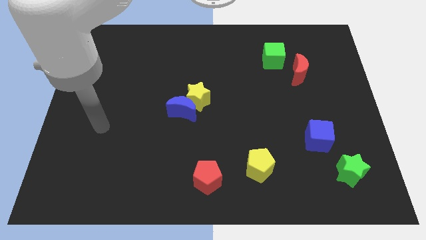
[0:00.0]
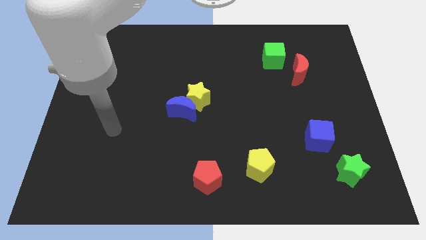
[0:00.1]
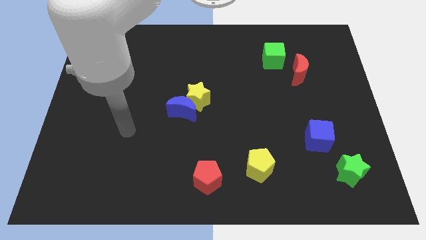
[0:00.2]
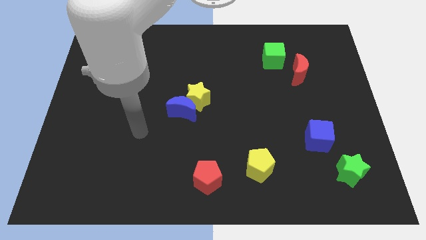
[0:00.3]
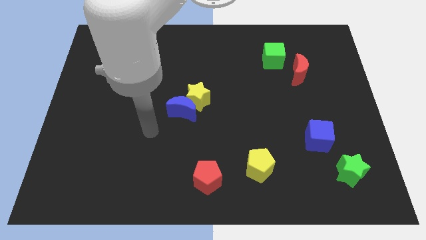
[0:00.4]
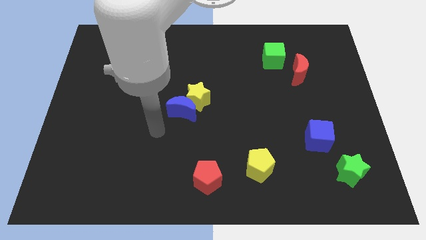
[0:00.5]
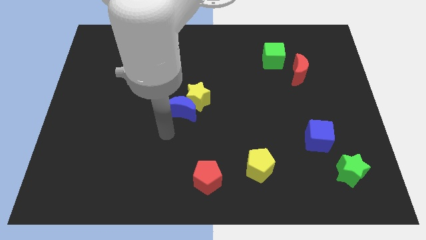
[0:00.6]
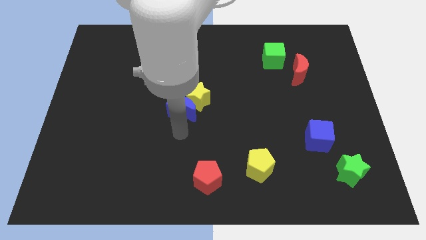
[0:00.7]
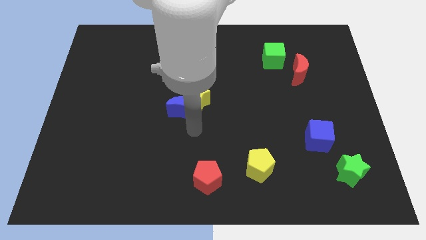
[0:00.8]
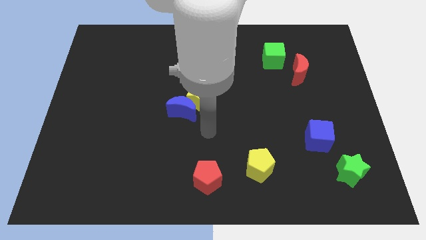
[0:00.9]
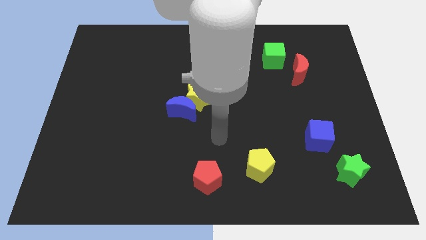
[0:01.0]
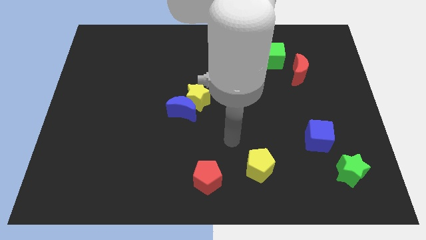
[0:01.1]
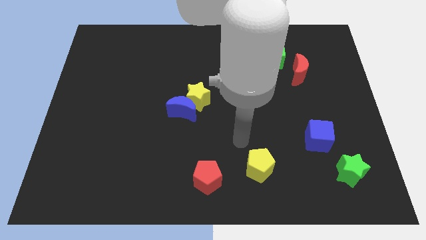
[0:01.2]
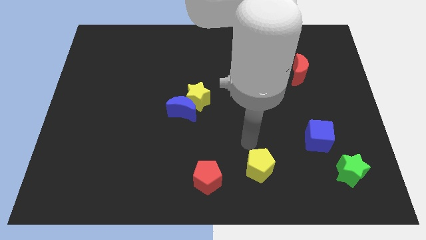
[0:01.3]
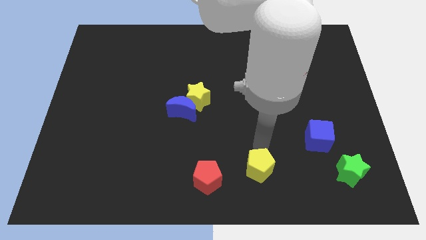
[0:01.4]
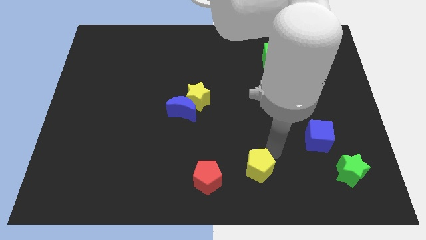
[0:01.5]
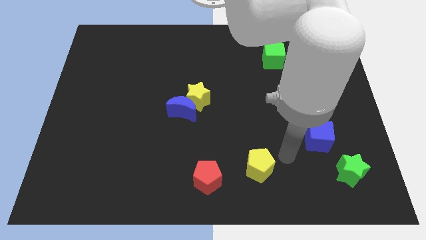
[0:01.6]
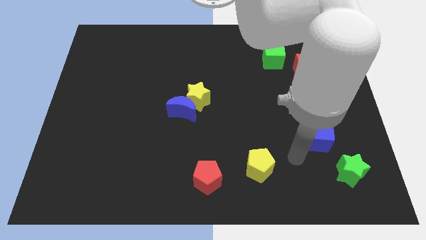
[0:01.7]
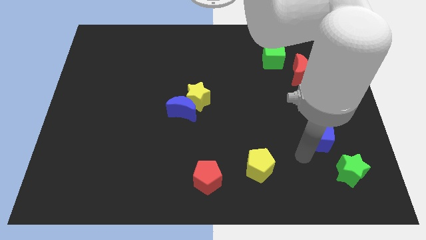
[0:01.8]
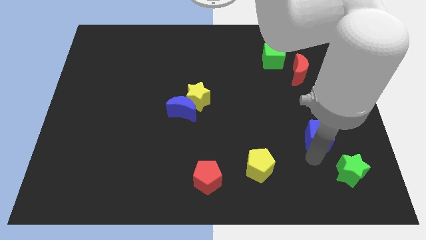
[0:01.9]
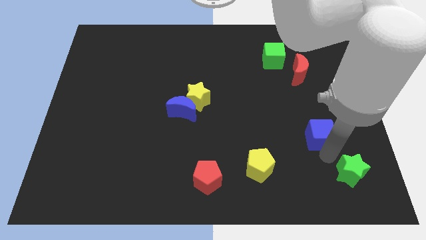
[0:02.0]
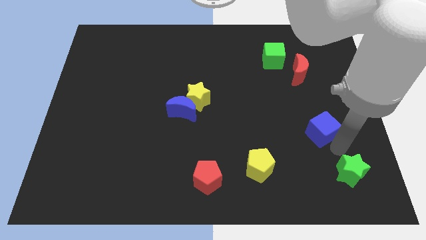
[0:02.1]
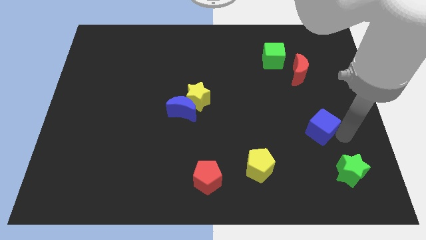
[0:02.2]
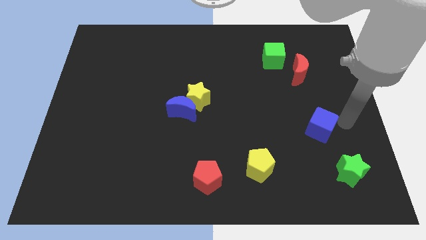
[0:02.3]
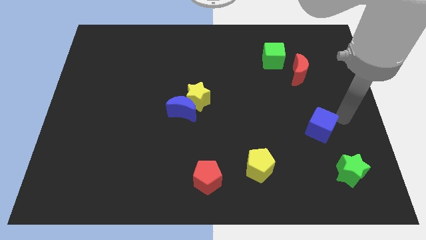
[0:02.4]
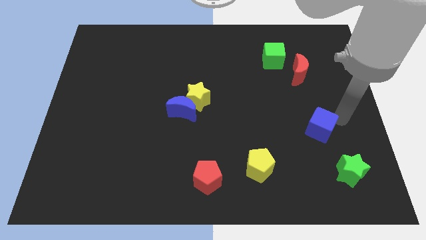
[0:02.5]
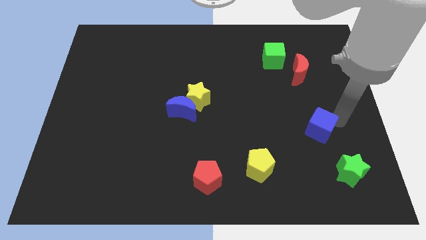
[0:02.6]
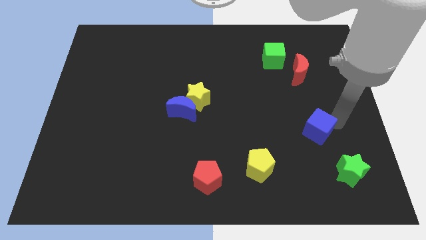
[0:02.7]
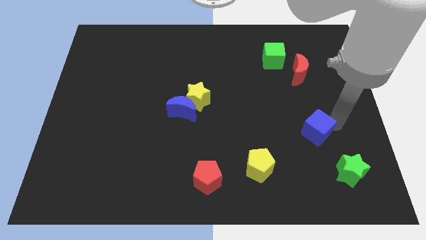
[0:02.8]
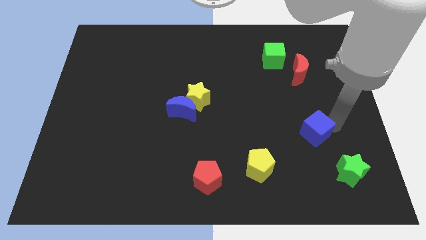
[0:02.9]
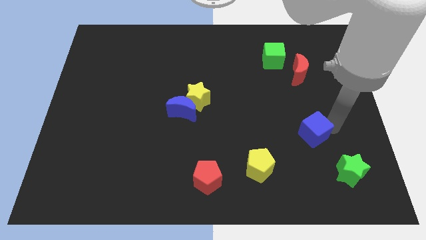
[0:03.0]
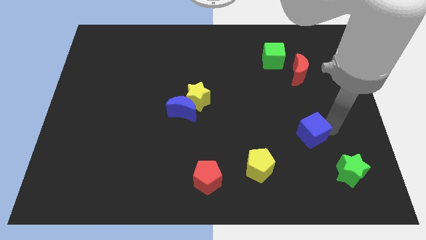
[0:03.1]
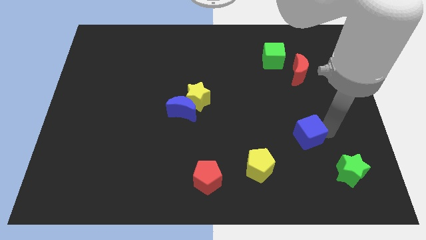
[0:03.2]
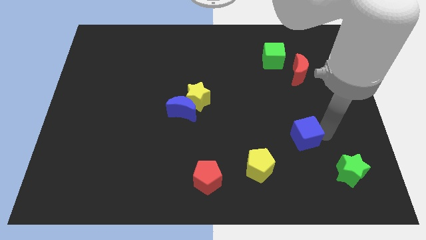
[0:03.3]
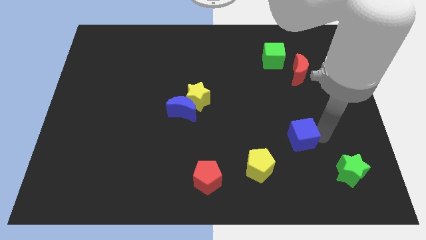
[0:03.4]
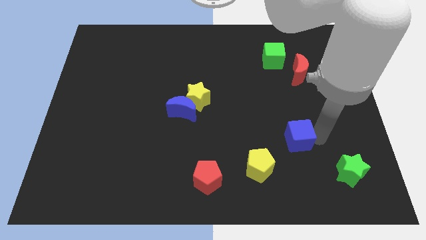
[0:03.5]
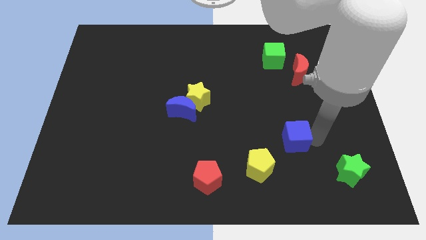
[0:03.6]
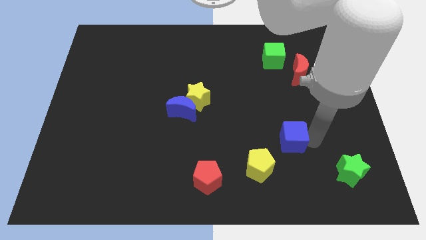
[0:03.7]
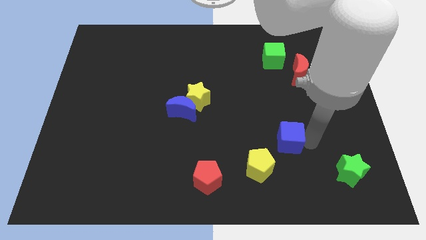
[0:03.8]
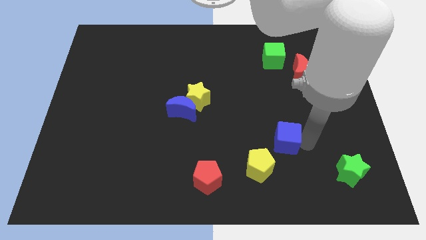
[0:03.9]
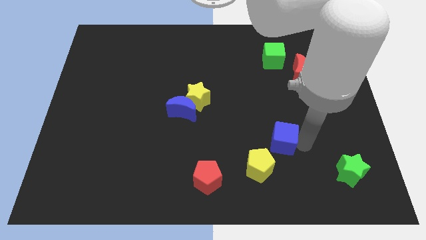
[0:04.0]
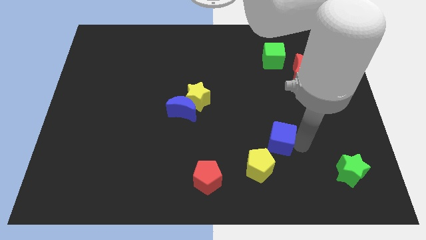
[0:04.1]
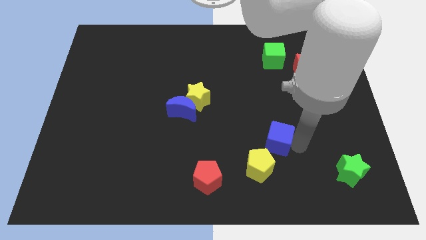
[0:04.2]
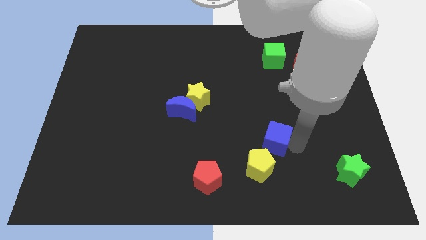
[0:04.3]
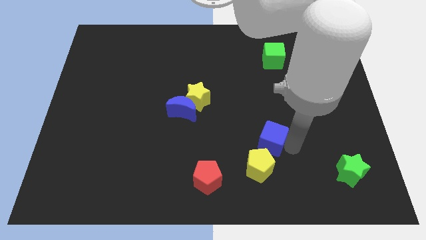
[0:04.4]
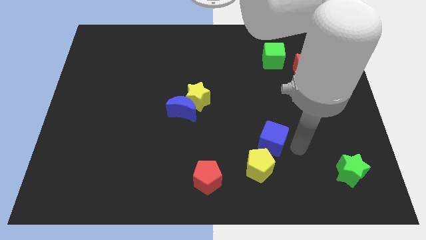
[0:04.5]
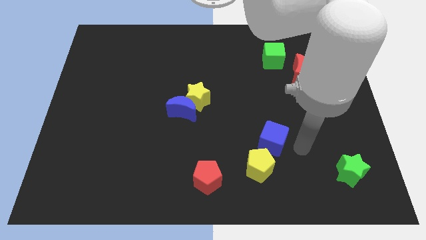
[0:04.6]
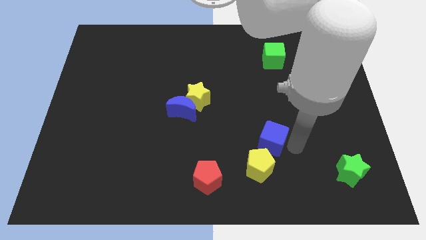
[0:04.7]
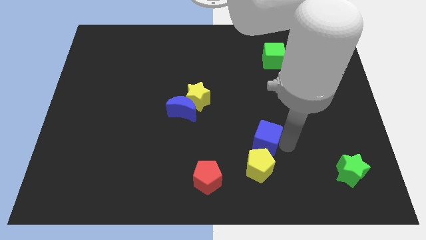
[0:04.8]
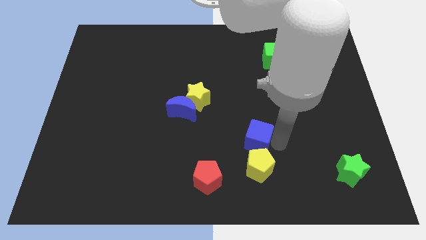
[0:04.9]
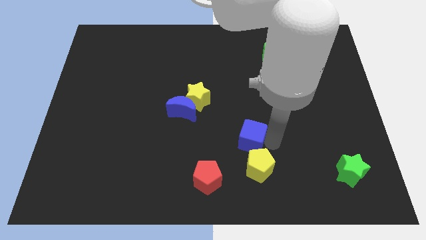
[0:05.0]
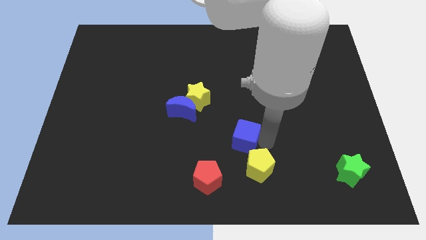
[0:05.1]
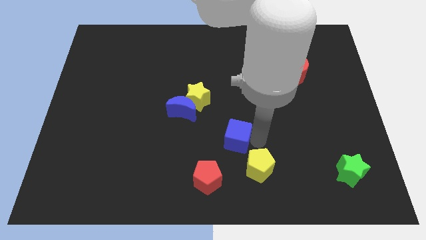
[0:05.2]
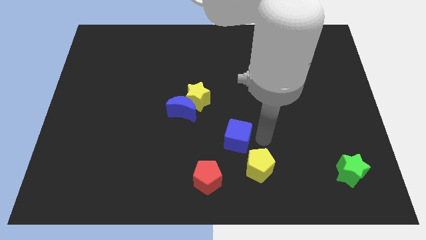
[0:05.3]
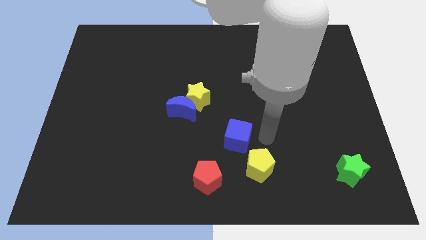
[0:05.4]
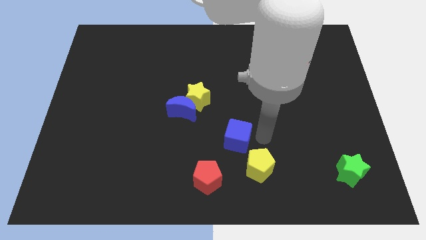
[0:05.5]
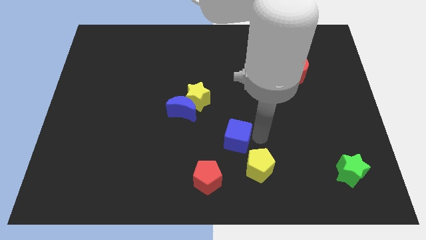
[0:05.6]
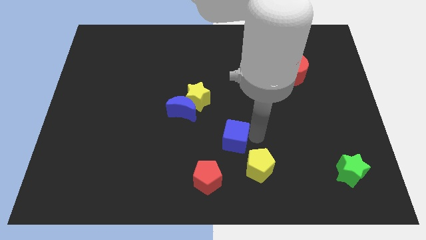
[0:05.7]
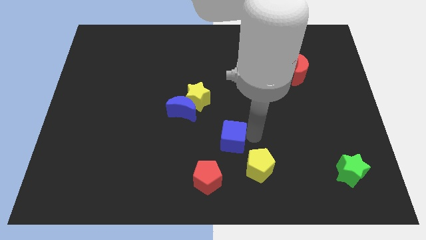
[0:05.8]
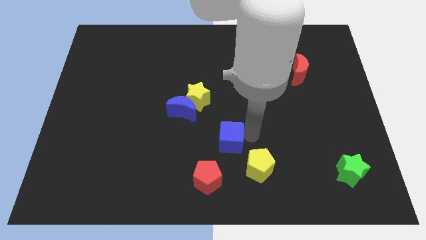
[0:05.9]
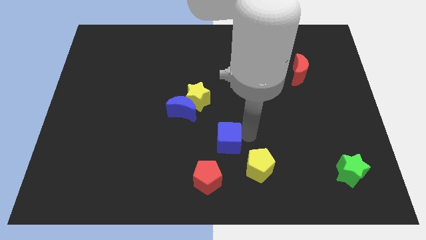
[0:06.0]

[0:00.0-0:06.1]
move the blue cube to the left

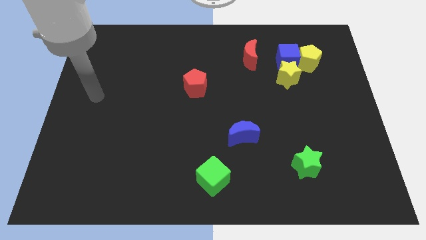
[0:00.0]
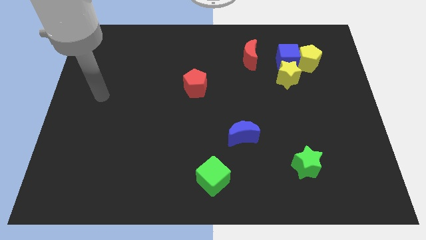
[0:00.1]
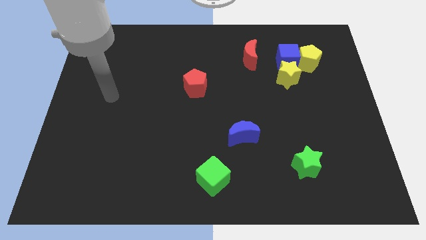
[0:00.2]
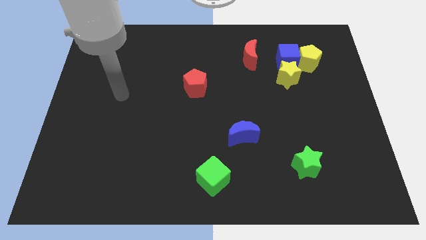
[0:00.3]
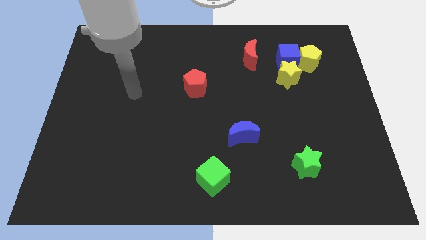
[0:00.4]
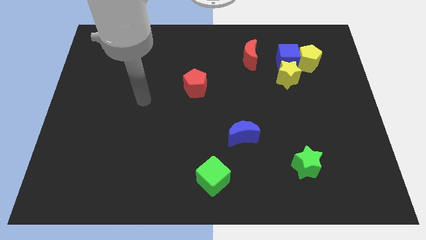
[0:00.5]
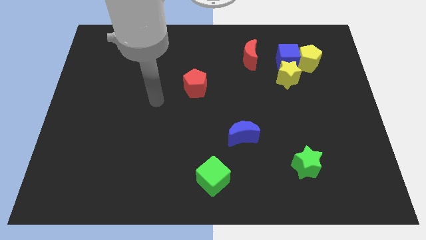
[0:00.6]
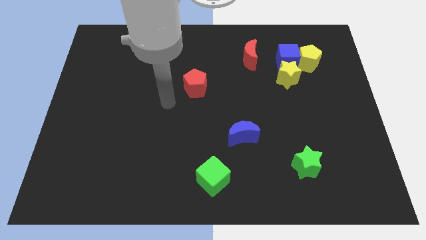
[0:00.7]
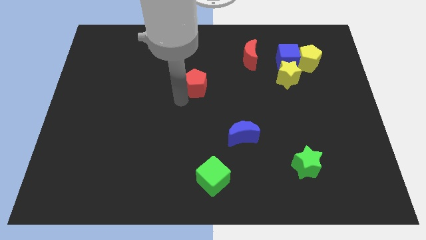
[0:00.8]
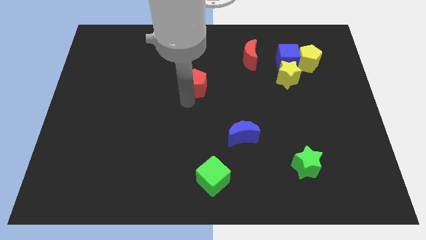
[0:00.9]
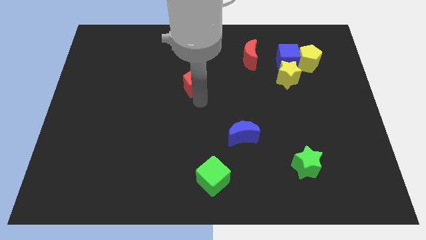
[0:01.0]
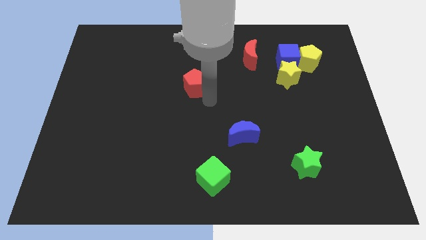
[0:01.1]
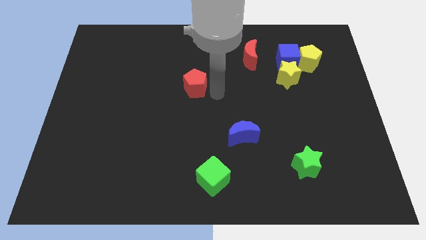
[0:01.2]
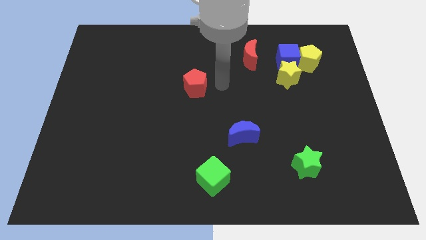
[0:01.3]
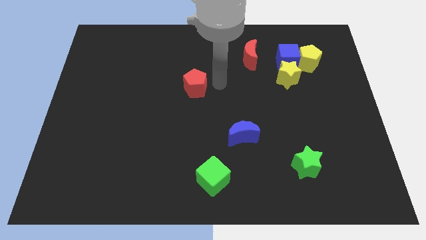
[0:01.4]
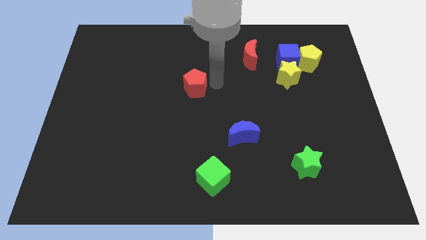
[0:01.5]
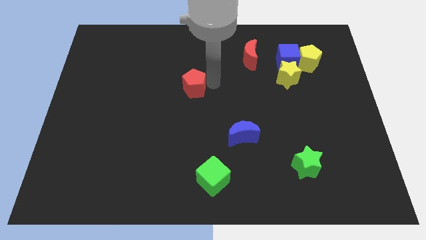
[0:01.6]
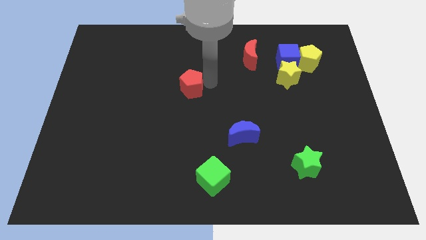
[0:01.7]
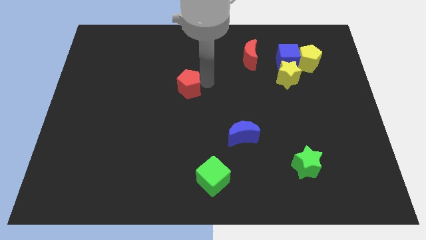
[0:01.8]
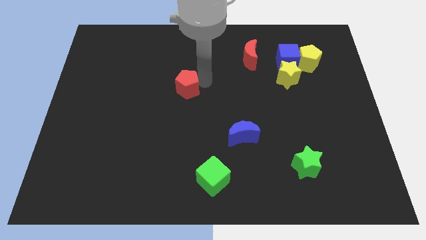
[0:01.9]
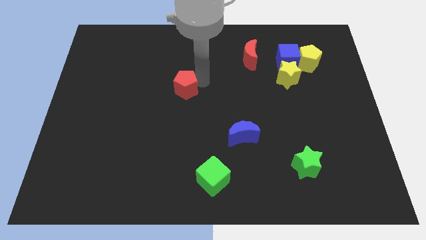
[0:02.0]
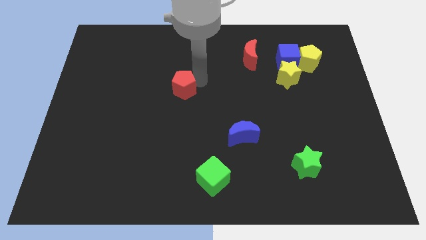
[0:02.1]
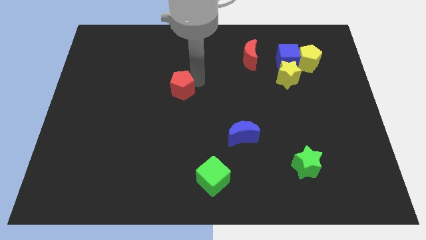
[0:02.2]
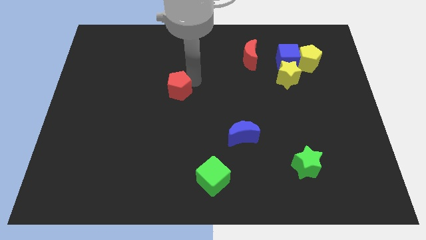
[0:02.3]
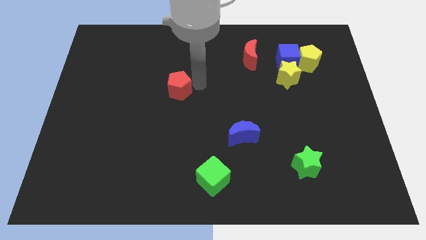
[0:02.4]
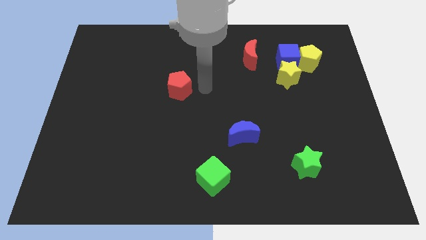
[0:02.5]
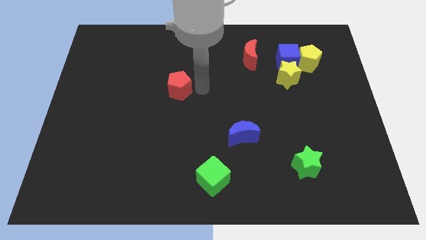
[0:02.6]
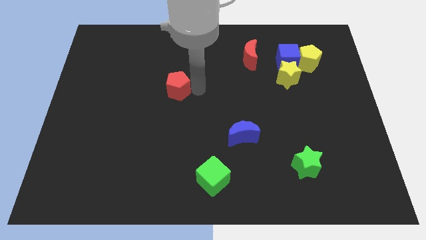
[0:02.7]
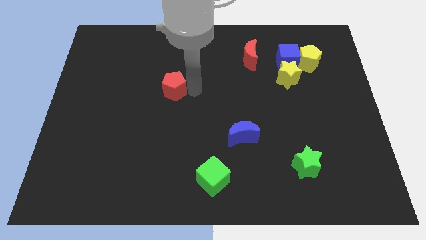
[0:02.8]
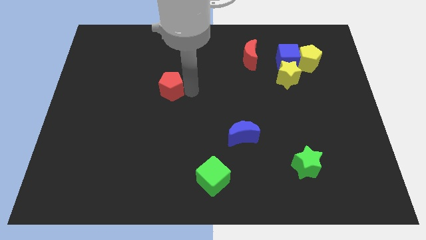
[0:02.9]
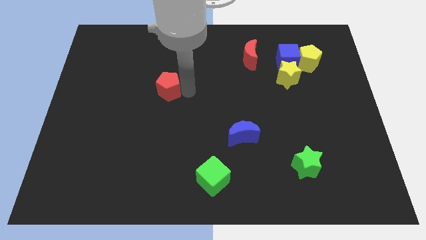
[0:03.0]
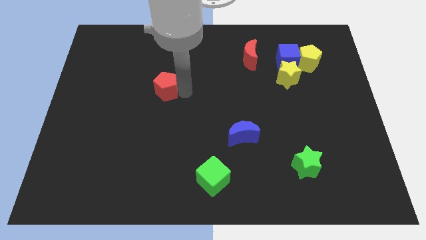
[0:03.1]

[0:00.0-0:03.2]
slightly push the red pentagon left
